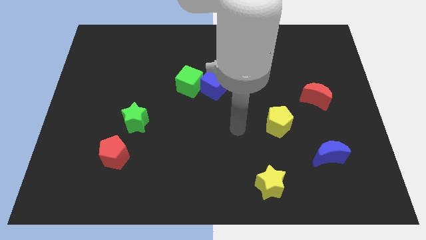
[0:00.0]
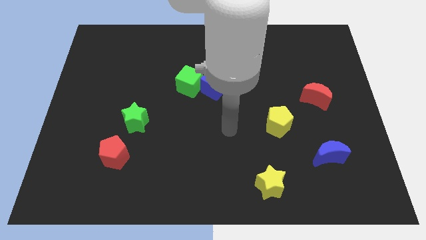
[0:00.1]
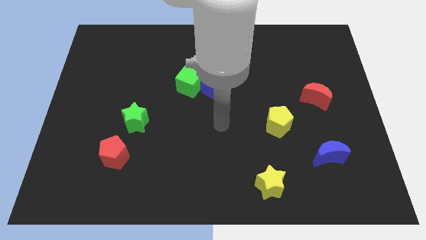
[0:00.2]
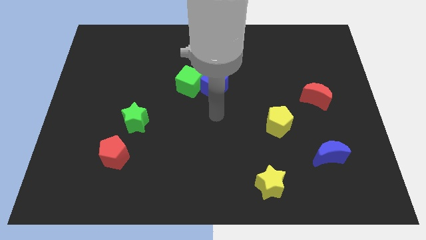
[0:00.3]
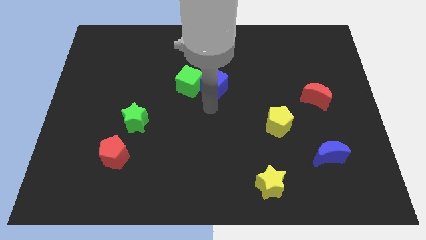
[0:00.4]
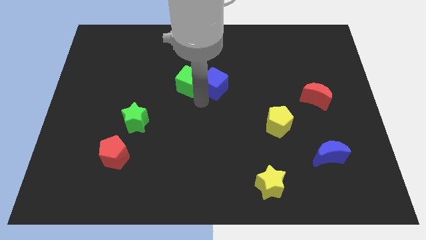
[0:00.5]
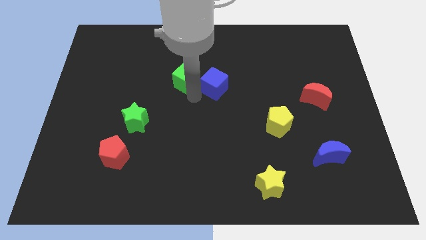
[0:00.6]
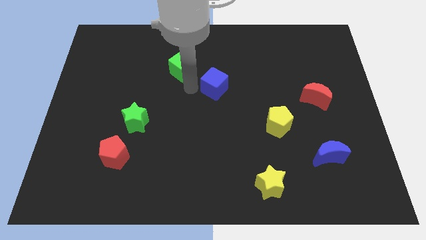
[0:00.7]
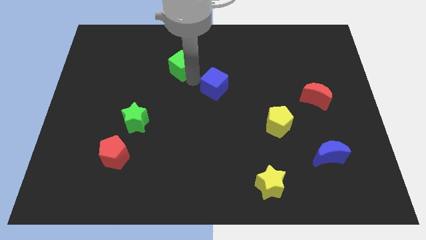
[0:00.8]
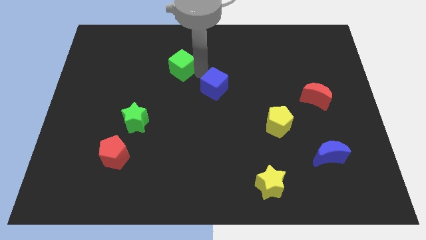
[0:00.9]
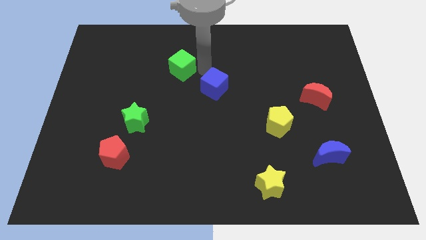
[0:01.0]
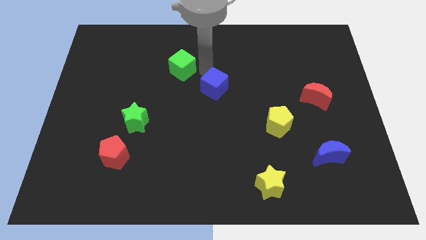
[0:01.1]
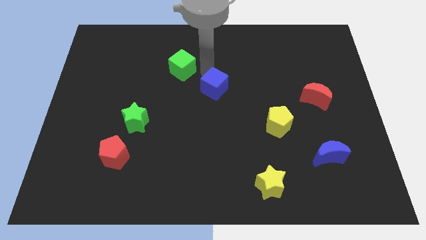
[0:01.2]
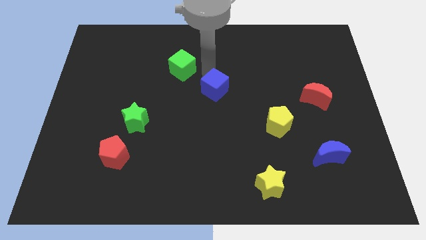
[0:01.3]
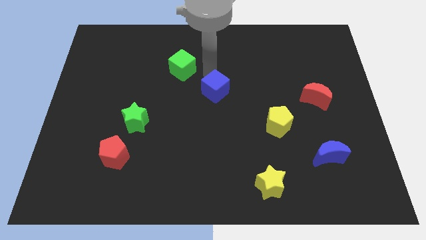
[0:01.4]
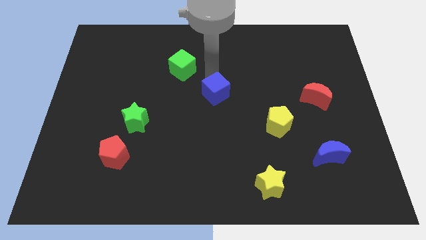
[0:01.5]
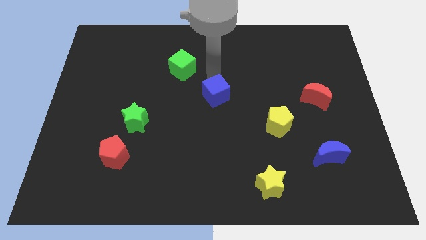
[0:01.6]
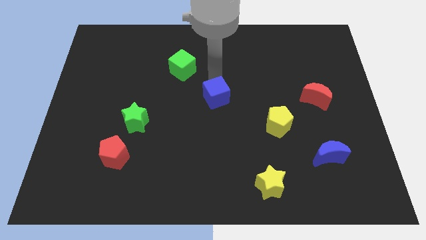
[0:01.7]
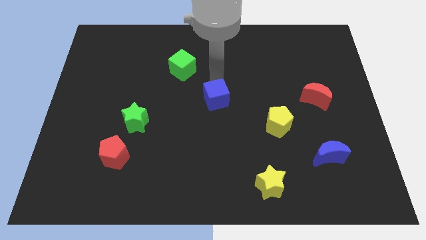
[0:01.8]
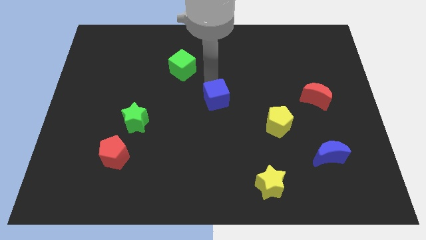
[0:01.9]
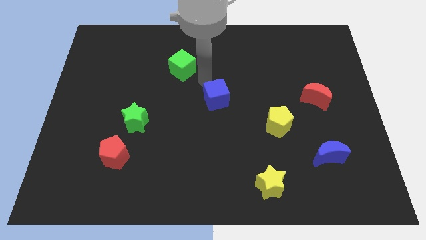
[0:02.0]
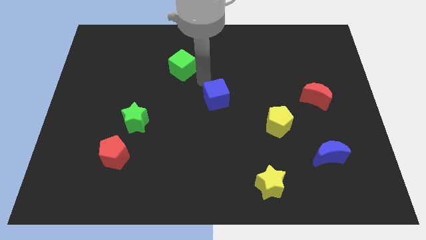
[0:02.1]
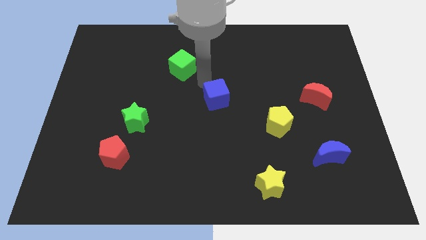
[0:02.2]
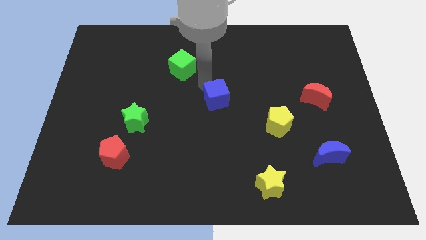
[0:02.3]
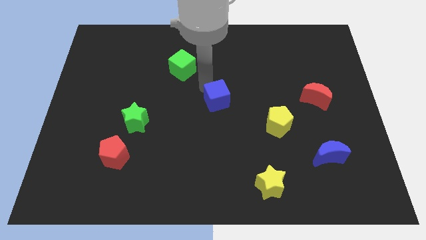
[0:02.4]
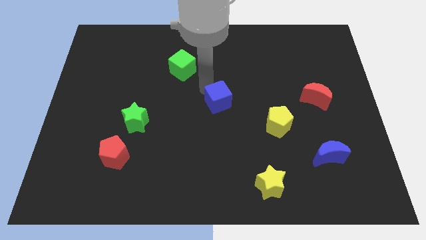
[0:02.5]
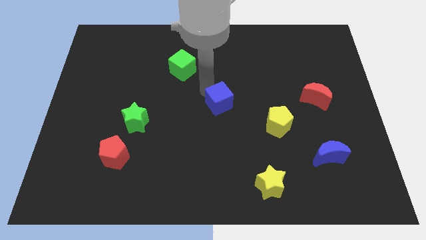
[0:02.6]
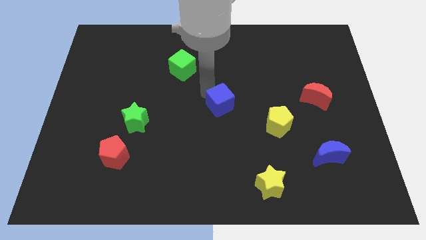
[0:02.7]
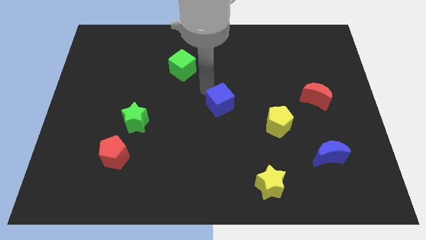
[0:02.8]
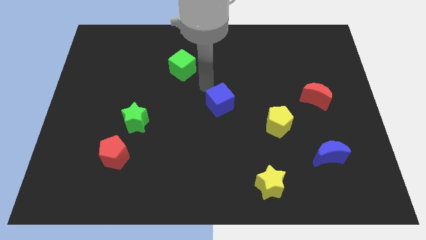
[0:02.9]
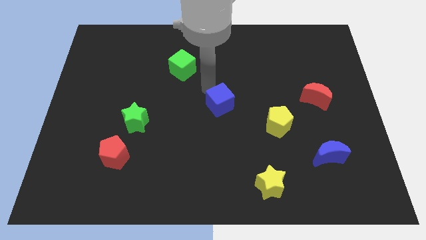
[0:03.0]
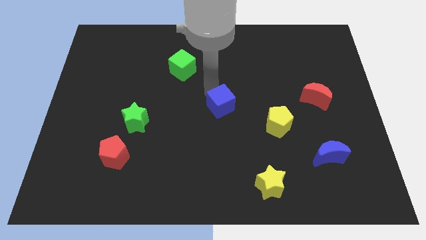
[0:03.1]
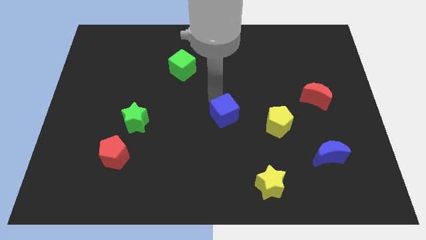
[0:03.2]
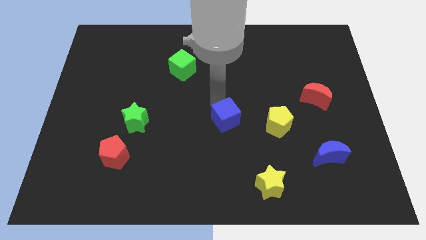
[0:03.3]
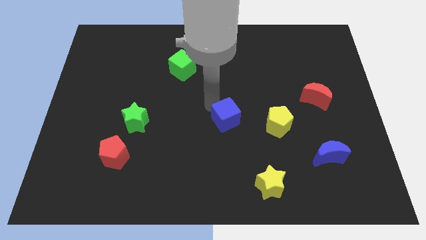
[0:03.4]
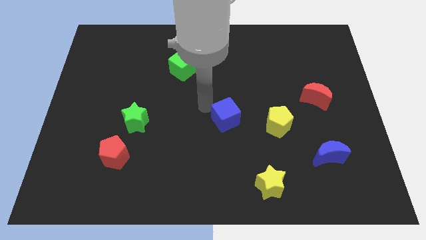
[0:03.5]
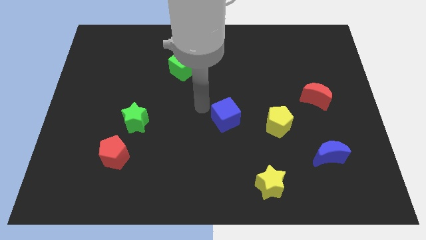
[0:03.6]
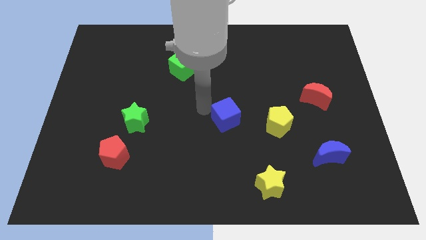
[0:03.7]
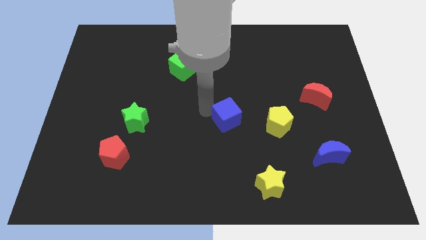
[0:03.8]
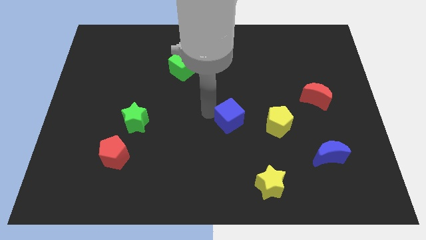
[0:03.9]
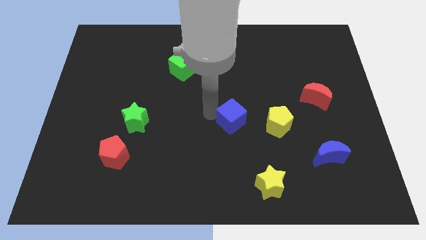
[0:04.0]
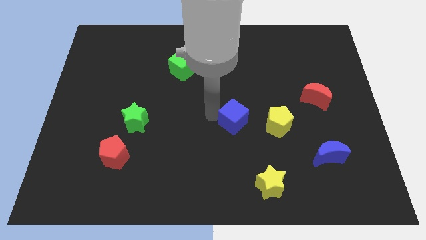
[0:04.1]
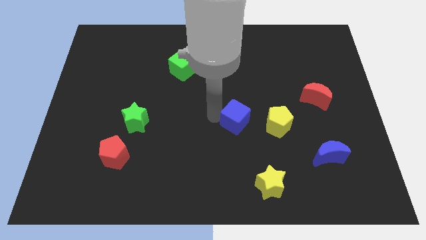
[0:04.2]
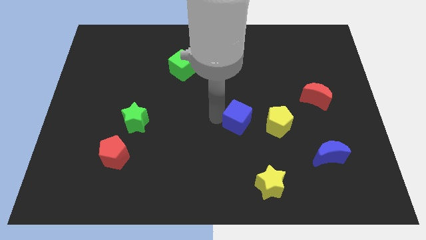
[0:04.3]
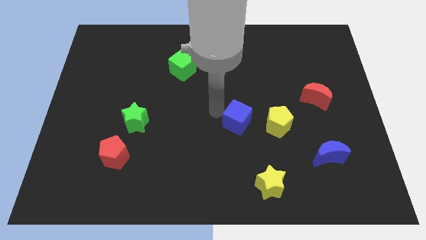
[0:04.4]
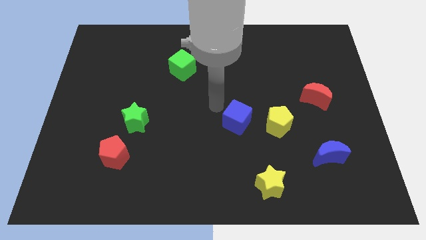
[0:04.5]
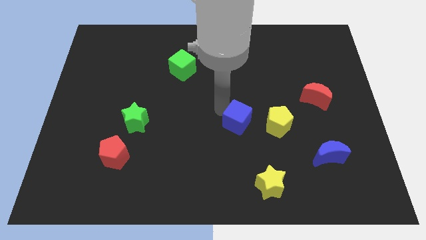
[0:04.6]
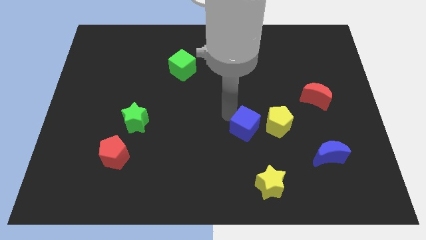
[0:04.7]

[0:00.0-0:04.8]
slide the blue cube to the top of the yellow star

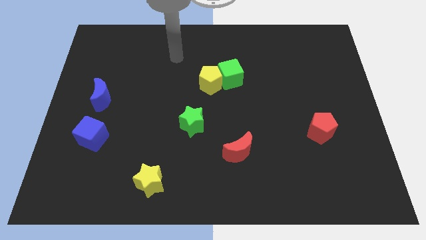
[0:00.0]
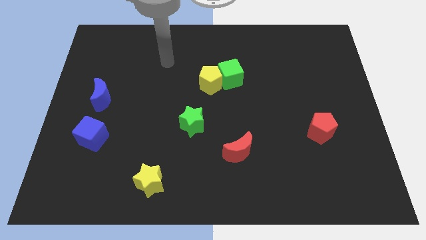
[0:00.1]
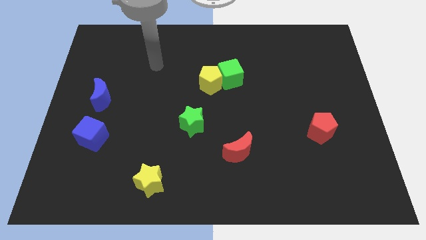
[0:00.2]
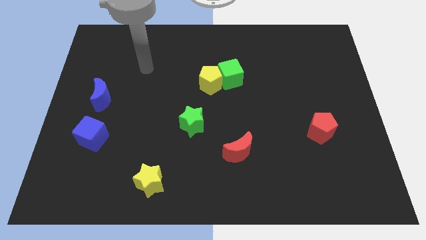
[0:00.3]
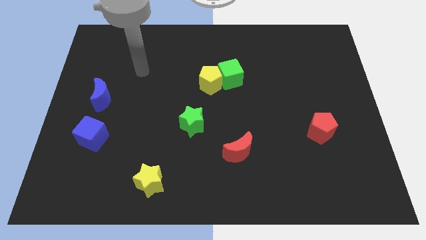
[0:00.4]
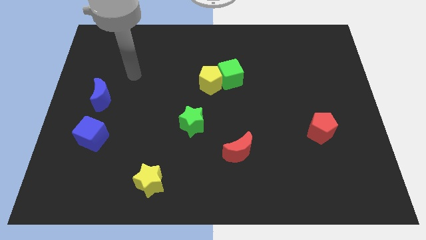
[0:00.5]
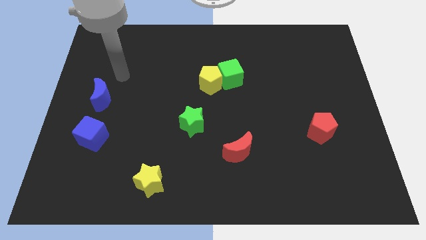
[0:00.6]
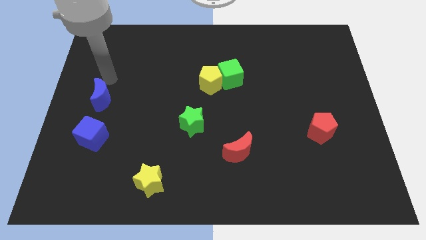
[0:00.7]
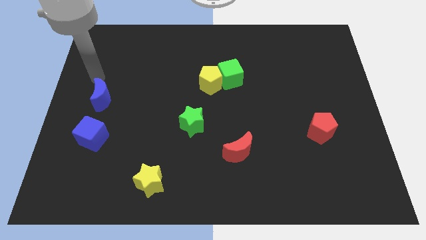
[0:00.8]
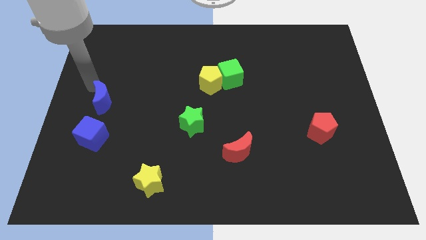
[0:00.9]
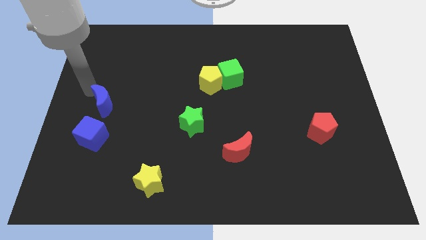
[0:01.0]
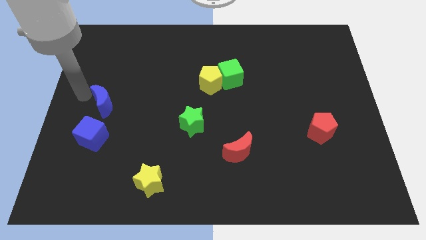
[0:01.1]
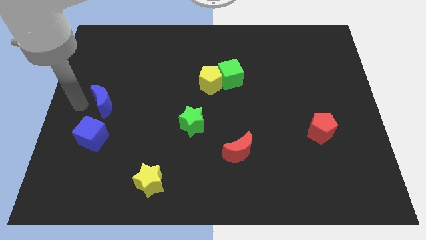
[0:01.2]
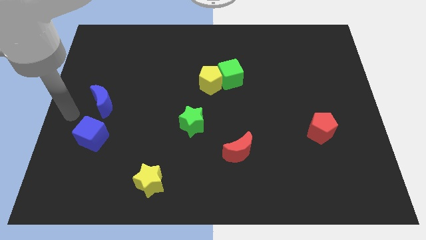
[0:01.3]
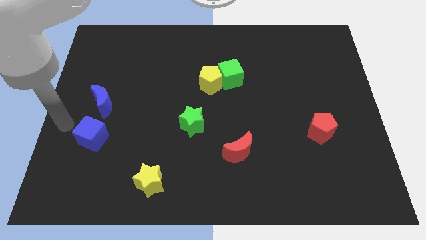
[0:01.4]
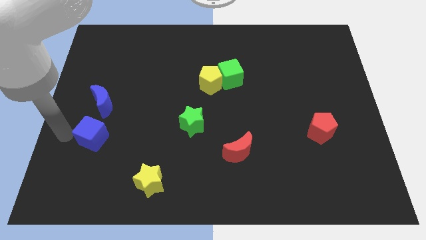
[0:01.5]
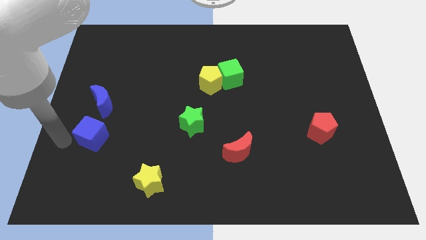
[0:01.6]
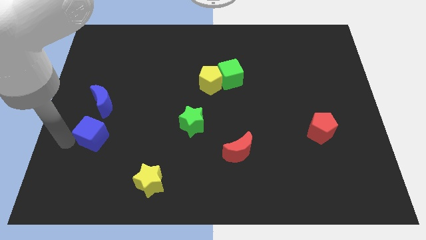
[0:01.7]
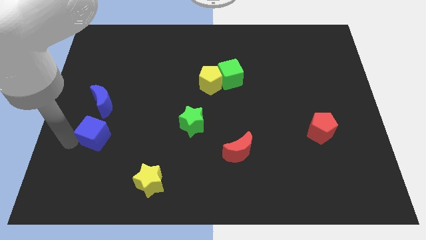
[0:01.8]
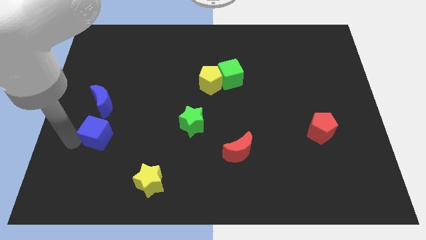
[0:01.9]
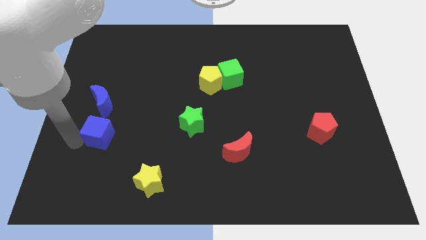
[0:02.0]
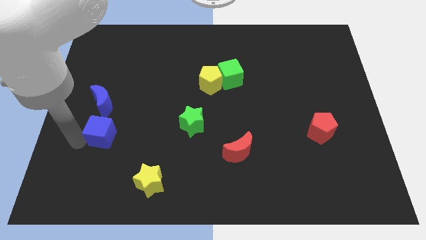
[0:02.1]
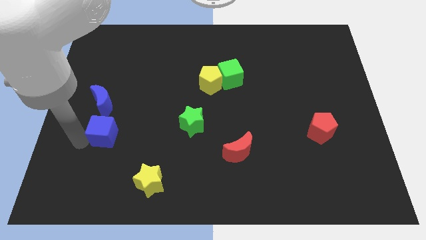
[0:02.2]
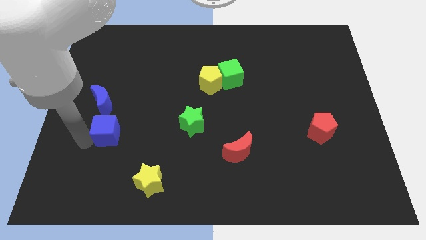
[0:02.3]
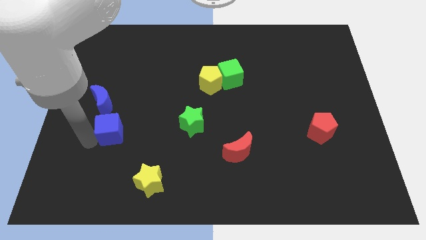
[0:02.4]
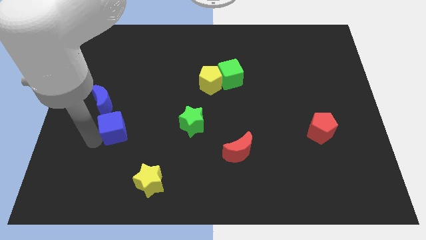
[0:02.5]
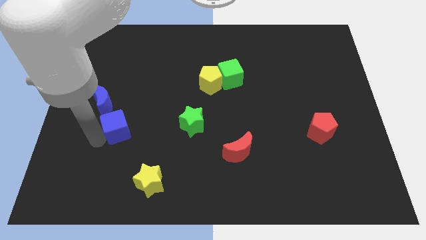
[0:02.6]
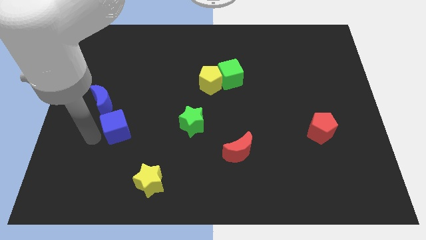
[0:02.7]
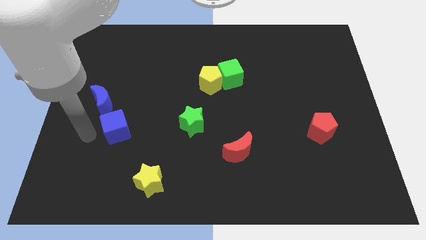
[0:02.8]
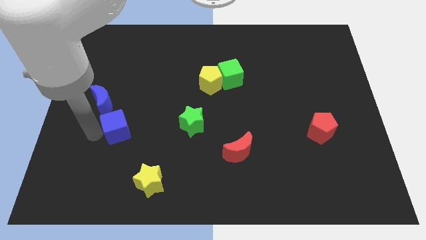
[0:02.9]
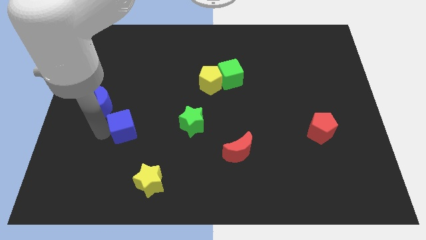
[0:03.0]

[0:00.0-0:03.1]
put the blue cube to the left side of the green star
